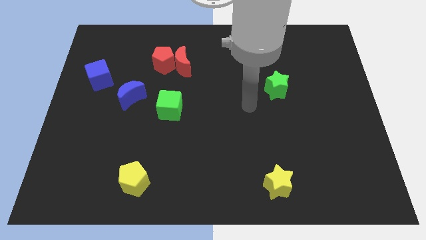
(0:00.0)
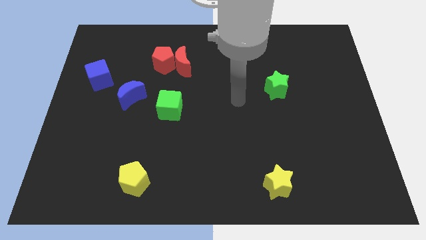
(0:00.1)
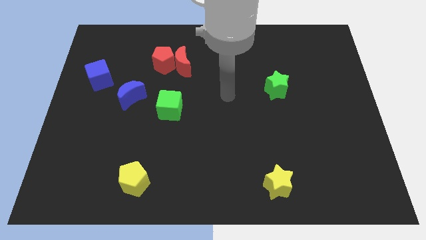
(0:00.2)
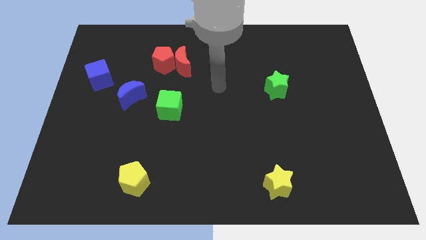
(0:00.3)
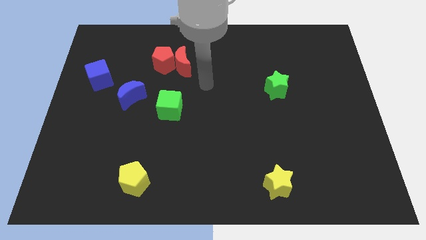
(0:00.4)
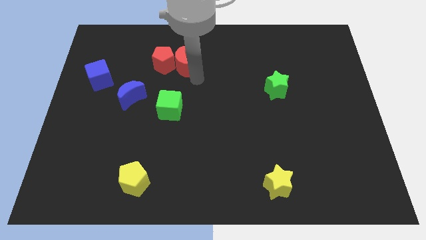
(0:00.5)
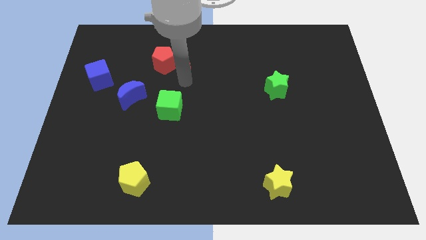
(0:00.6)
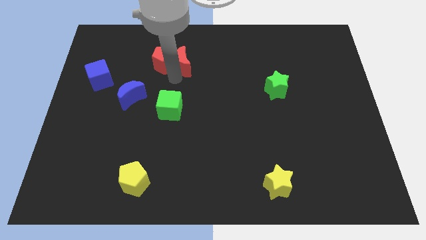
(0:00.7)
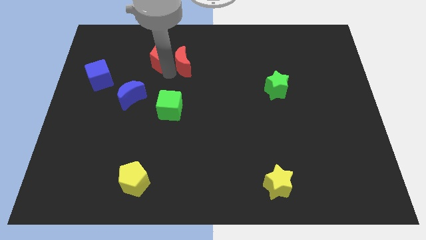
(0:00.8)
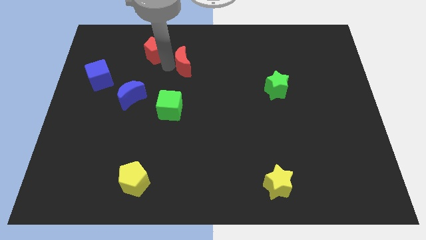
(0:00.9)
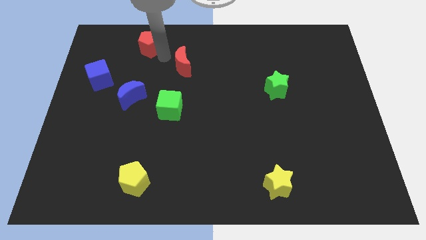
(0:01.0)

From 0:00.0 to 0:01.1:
move the red moon away from the red pentagon

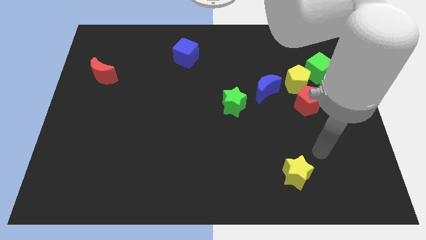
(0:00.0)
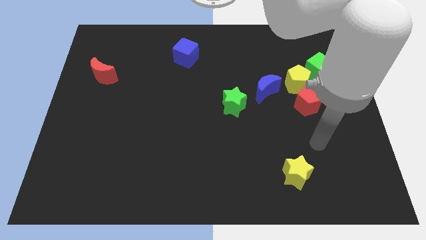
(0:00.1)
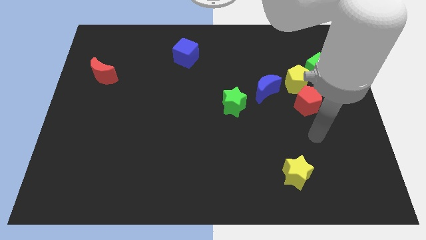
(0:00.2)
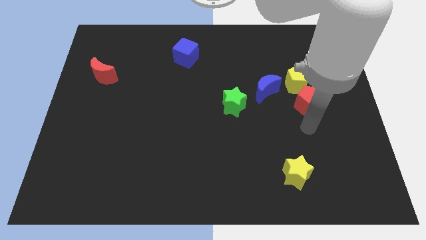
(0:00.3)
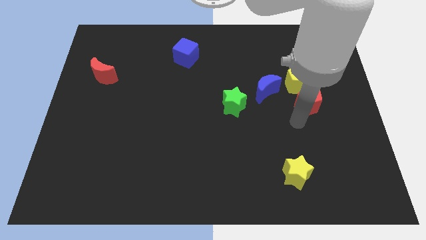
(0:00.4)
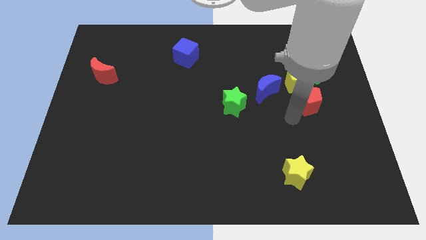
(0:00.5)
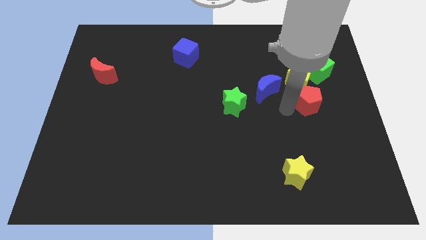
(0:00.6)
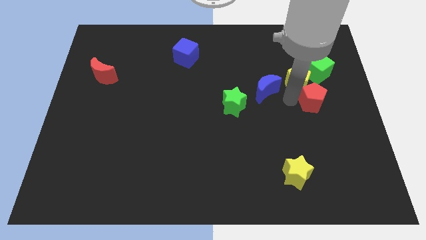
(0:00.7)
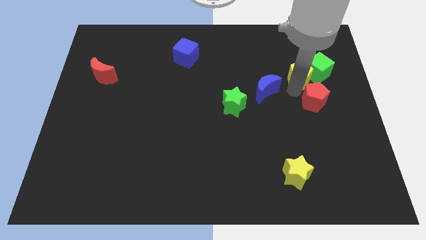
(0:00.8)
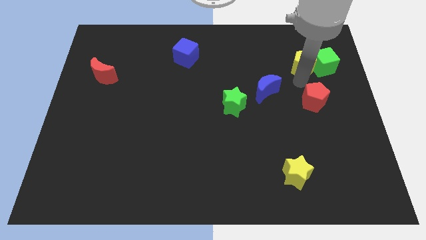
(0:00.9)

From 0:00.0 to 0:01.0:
separate the red pentagon from the yellow pentagon

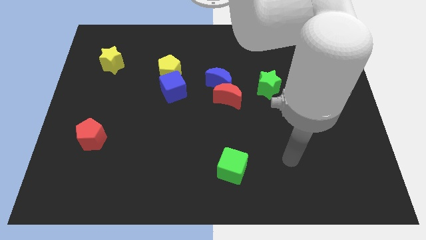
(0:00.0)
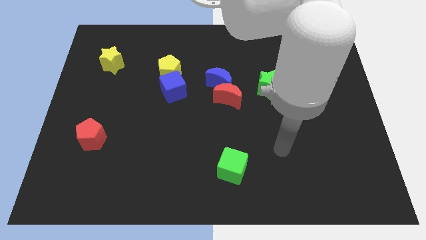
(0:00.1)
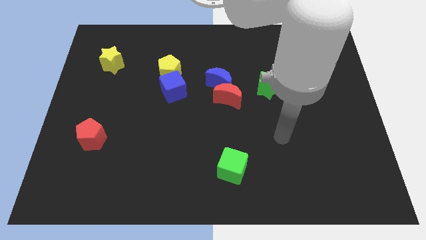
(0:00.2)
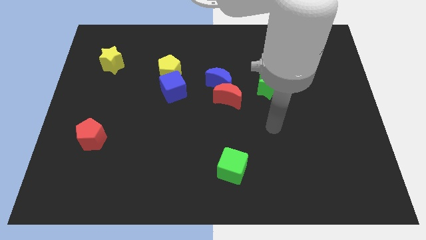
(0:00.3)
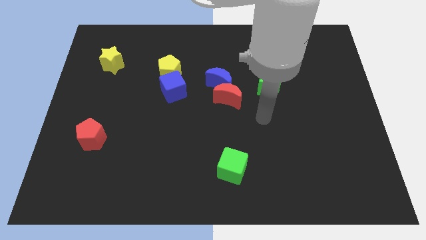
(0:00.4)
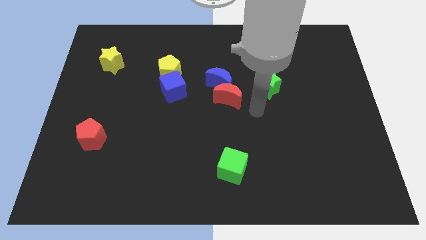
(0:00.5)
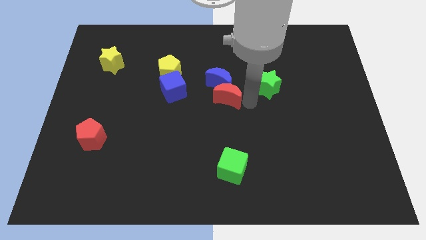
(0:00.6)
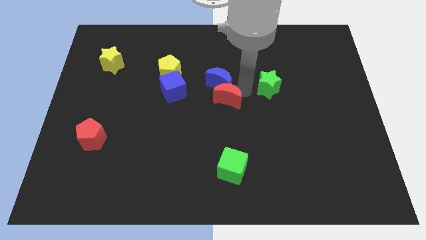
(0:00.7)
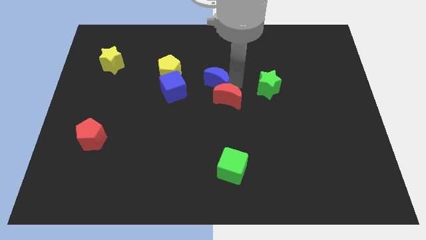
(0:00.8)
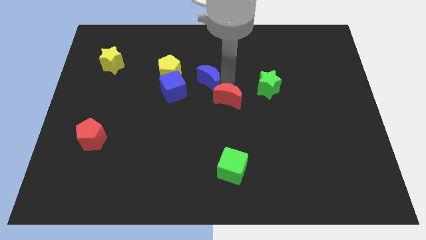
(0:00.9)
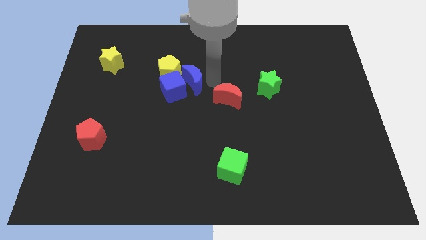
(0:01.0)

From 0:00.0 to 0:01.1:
separate the red moon from the blue moon

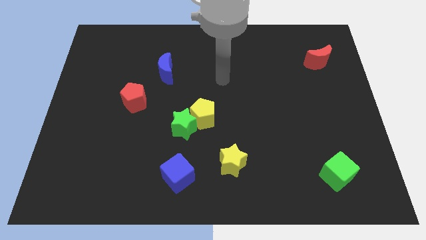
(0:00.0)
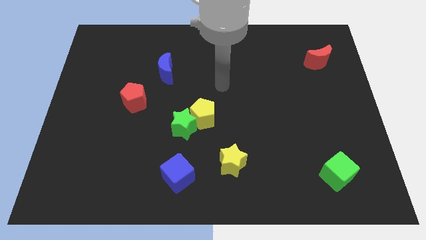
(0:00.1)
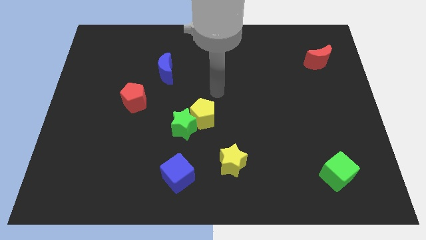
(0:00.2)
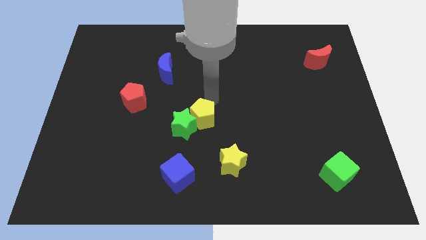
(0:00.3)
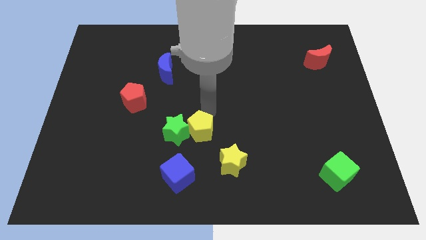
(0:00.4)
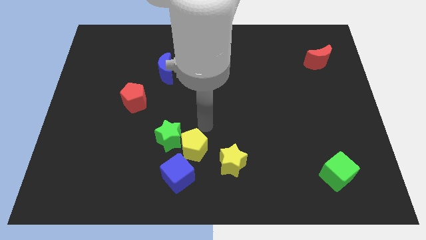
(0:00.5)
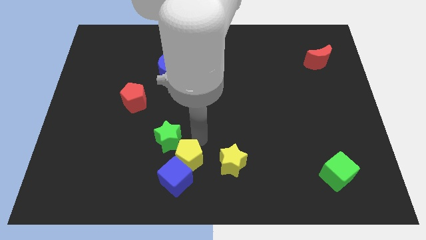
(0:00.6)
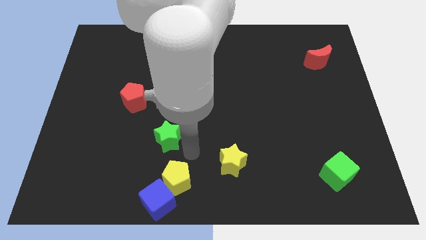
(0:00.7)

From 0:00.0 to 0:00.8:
move the green star away from the yellow pentagon

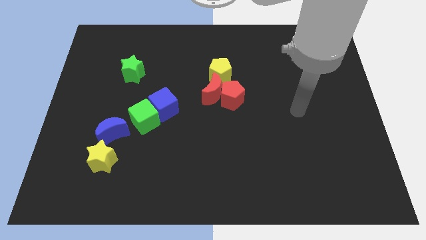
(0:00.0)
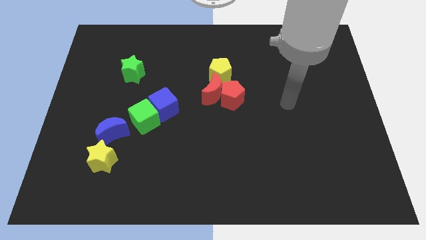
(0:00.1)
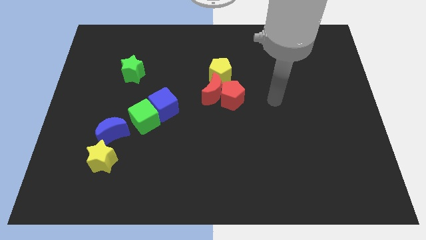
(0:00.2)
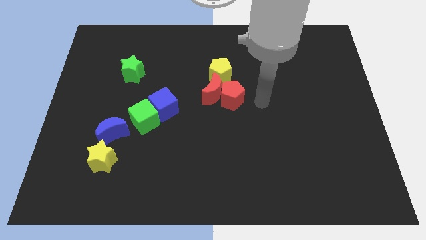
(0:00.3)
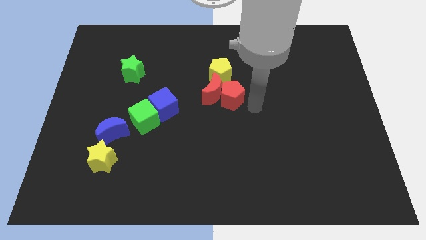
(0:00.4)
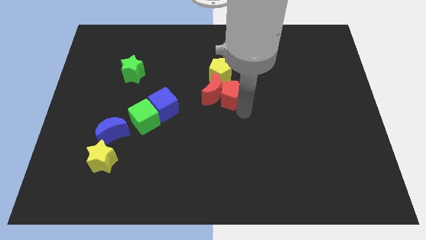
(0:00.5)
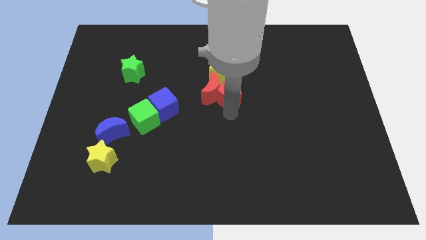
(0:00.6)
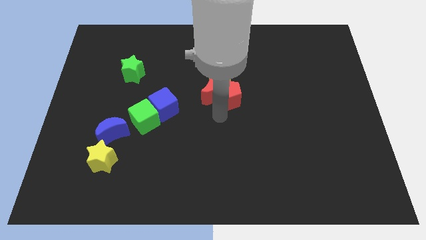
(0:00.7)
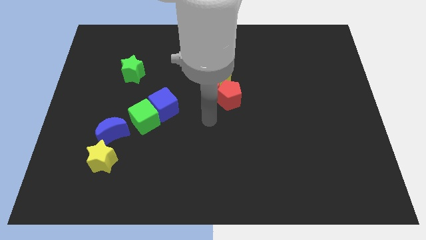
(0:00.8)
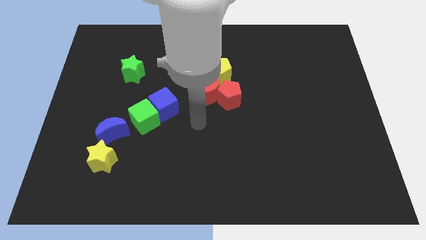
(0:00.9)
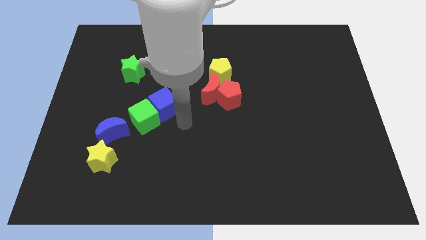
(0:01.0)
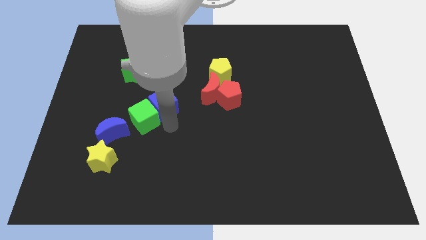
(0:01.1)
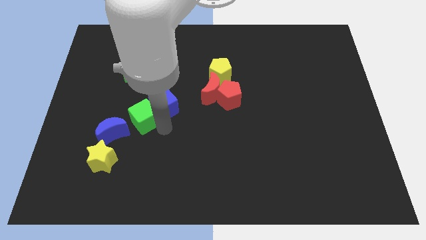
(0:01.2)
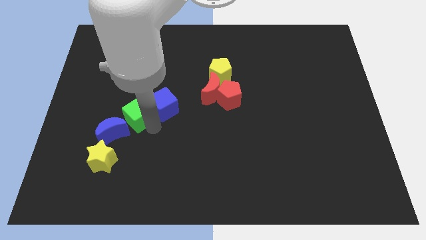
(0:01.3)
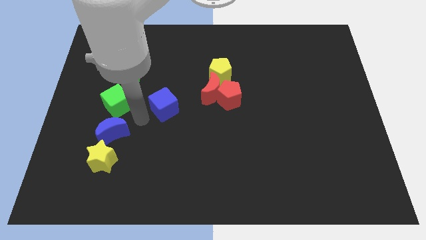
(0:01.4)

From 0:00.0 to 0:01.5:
separate the blue cube from the green cube

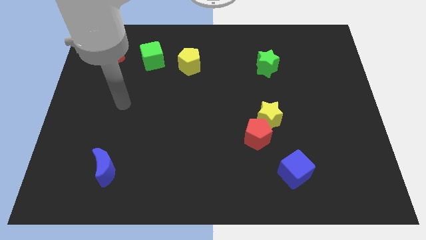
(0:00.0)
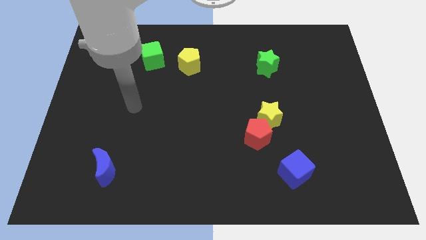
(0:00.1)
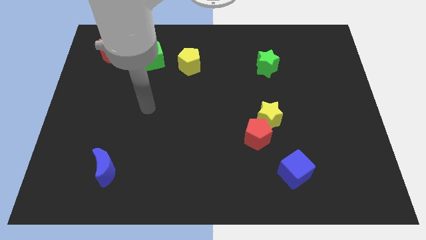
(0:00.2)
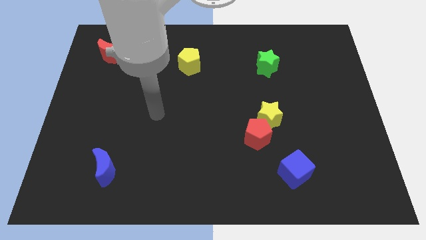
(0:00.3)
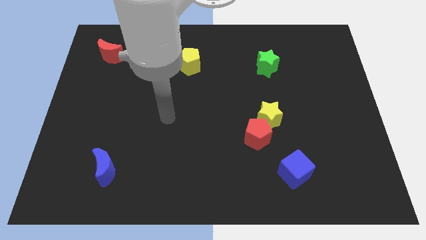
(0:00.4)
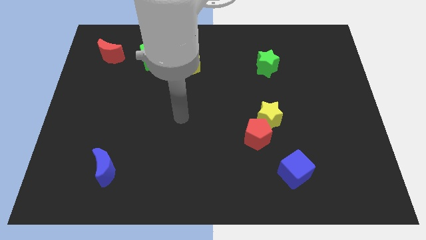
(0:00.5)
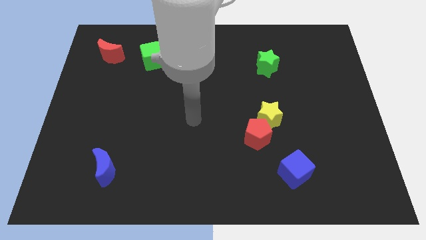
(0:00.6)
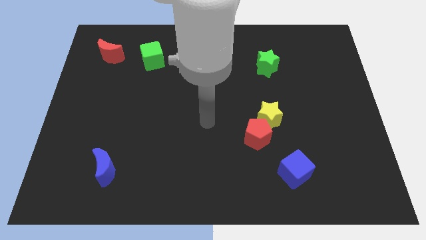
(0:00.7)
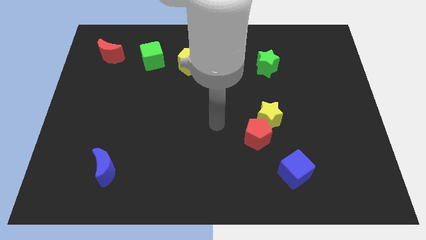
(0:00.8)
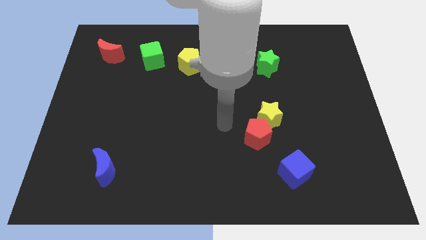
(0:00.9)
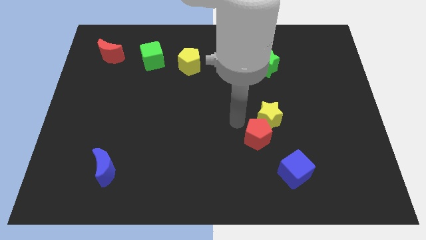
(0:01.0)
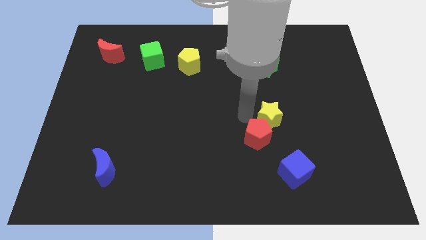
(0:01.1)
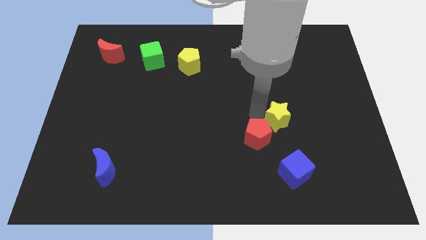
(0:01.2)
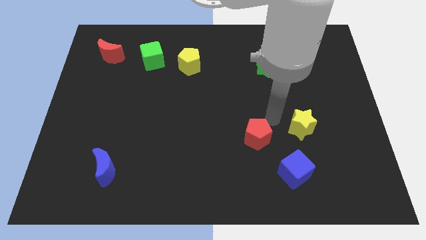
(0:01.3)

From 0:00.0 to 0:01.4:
pull the red pentagon apart from the yellow star

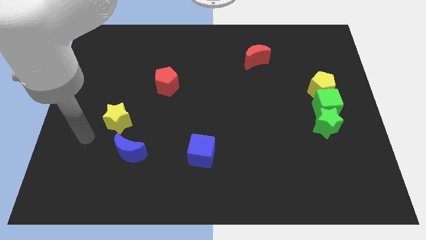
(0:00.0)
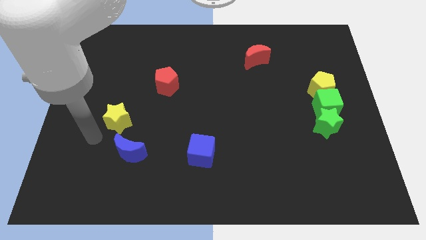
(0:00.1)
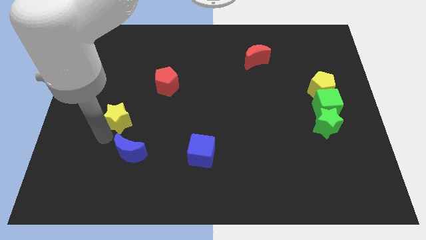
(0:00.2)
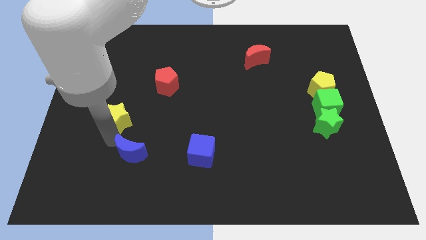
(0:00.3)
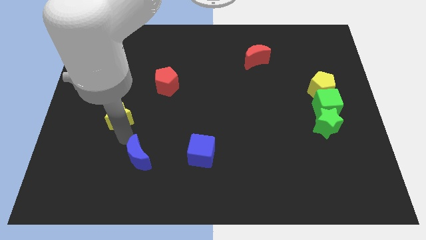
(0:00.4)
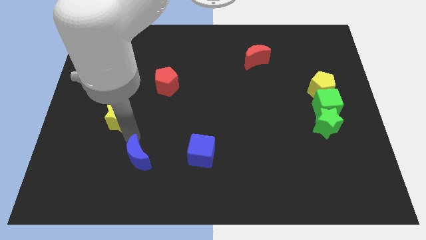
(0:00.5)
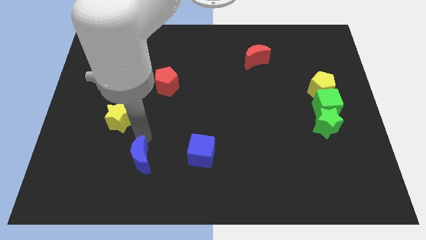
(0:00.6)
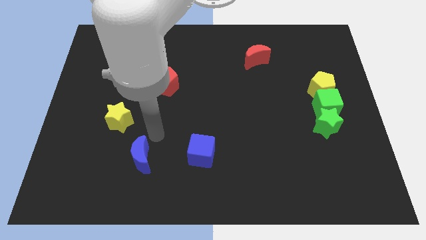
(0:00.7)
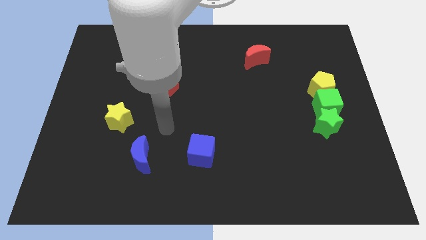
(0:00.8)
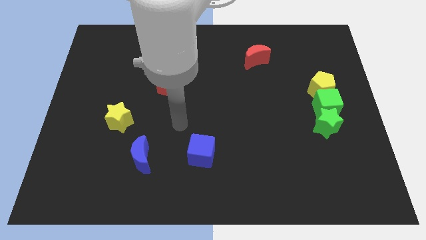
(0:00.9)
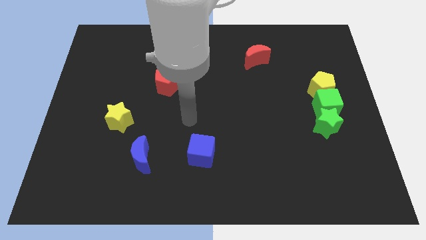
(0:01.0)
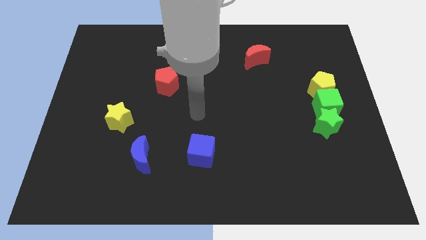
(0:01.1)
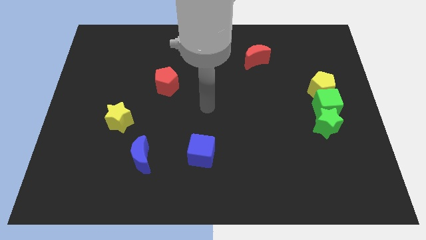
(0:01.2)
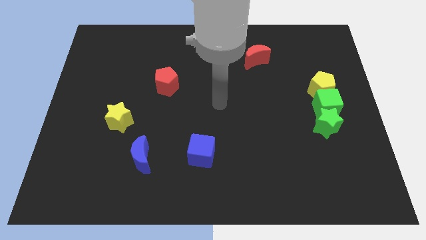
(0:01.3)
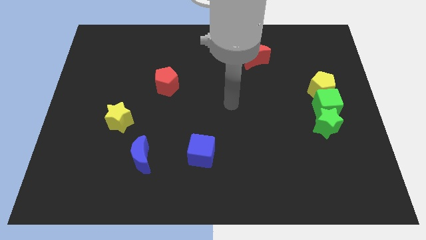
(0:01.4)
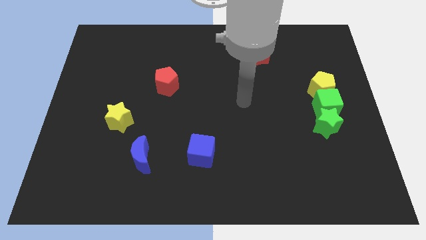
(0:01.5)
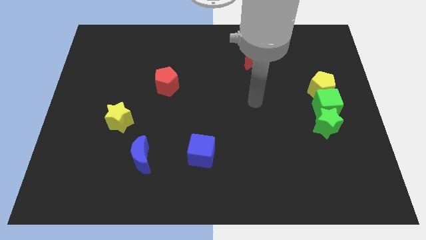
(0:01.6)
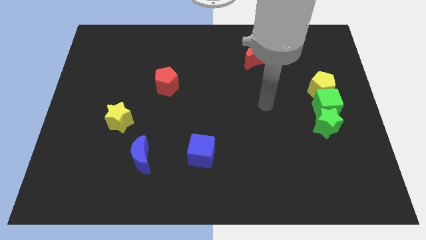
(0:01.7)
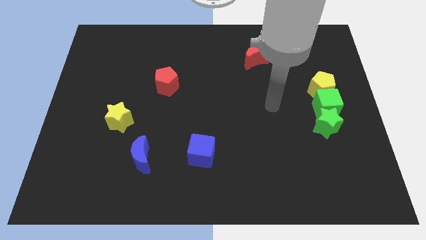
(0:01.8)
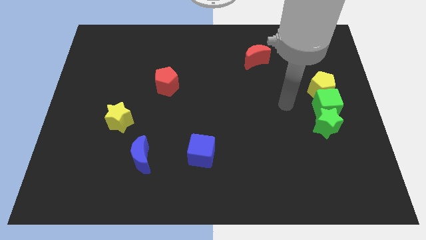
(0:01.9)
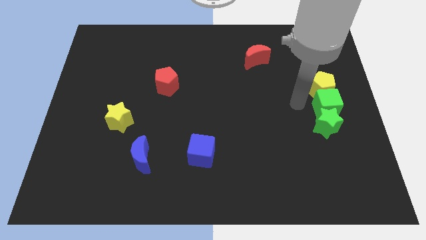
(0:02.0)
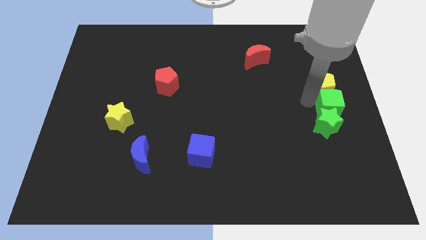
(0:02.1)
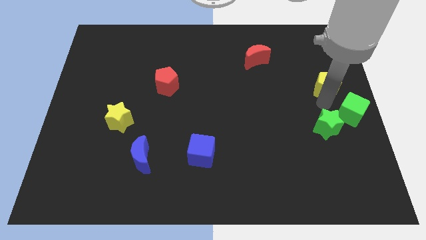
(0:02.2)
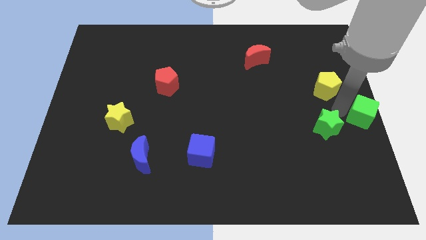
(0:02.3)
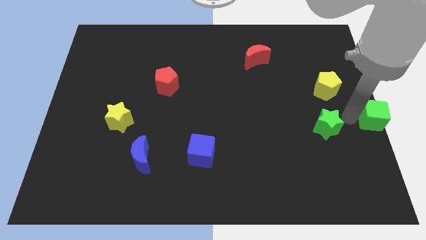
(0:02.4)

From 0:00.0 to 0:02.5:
separate the green star from the green cube
